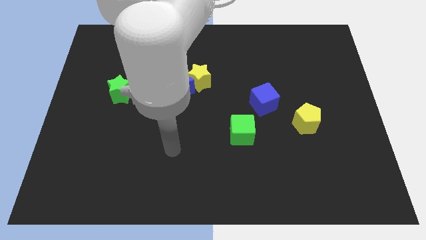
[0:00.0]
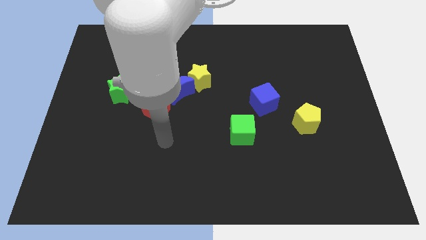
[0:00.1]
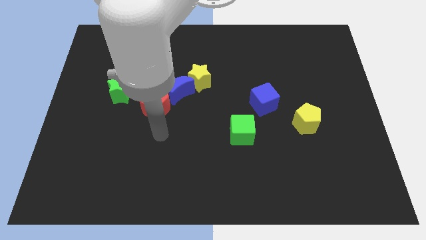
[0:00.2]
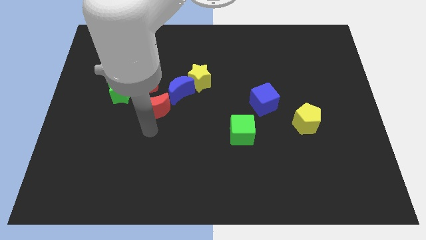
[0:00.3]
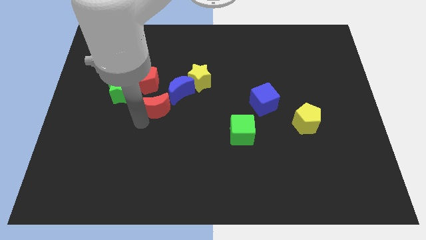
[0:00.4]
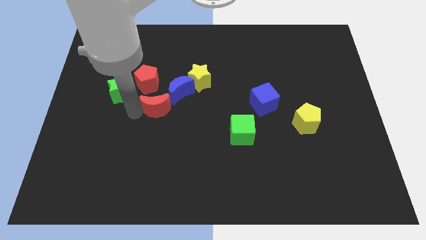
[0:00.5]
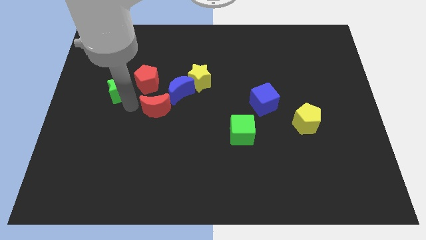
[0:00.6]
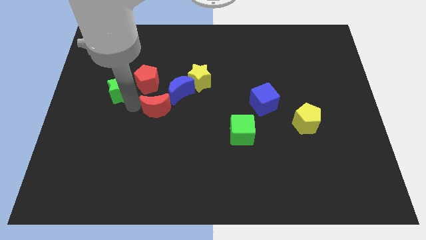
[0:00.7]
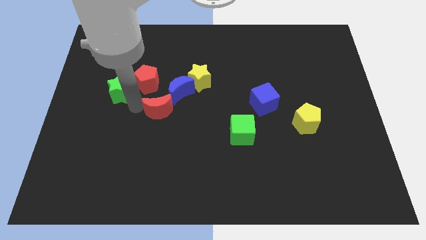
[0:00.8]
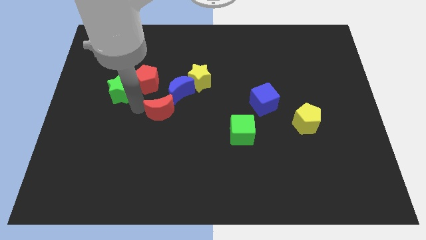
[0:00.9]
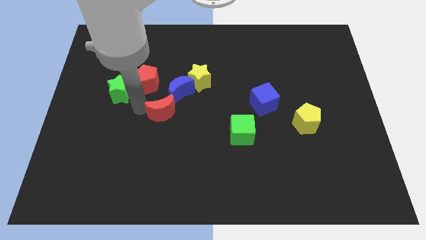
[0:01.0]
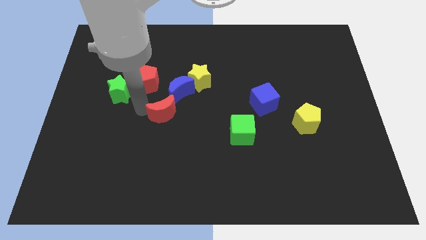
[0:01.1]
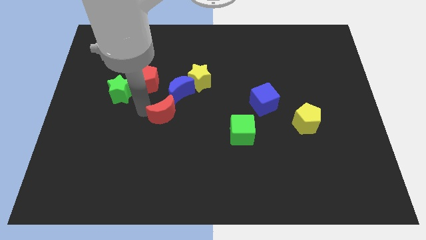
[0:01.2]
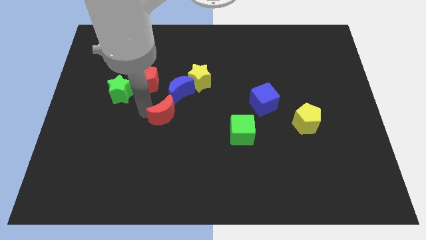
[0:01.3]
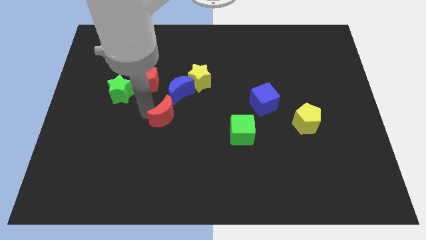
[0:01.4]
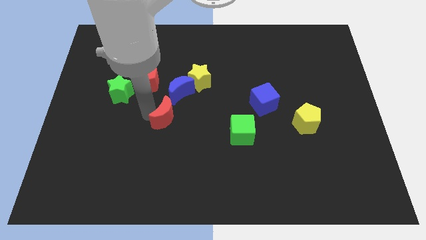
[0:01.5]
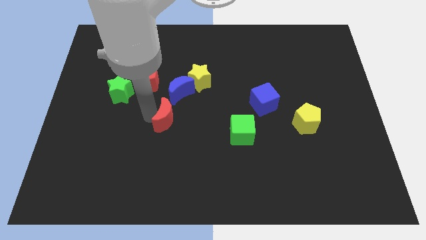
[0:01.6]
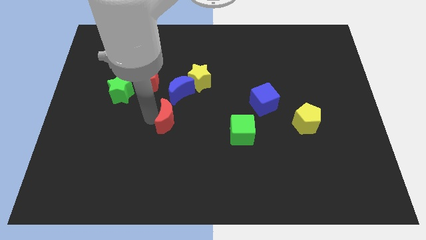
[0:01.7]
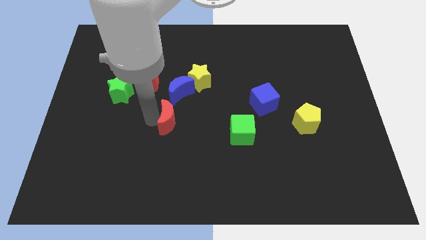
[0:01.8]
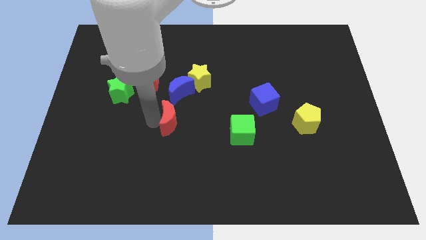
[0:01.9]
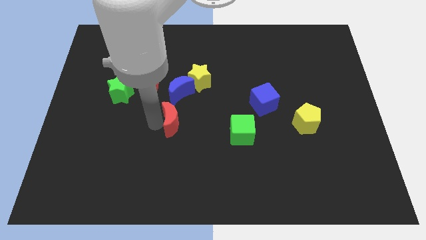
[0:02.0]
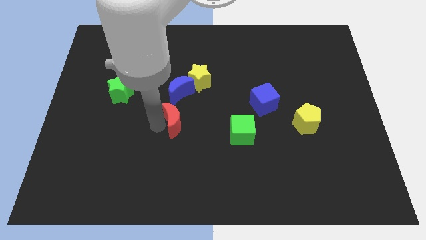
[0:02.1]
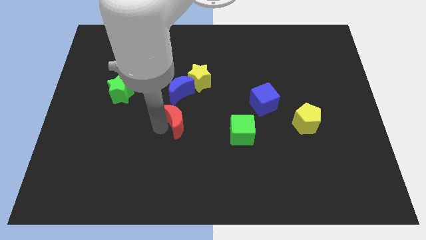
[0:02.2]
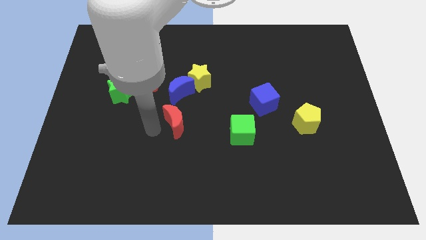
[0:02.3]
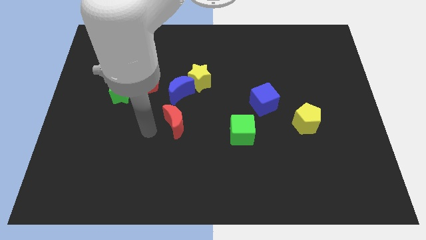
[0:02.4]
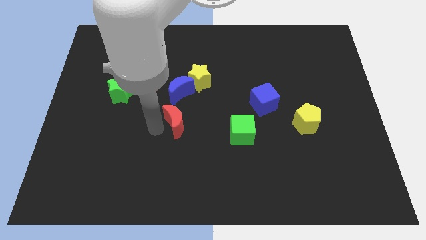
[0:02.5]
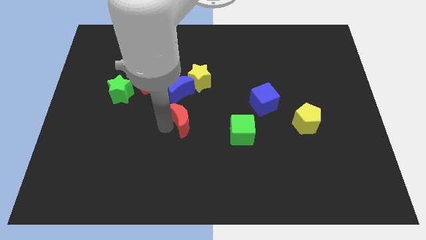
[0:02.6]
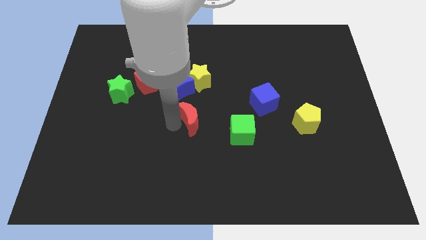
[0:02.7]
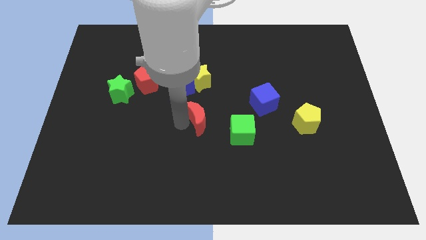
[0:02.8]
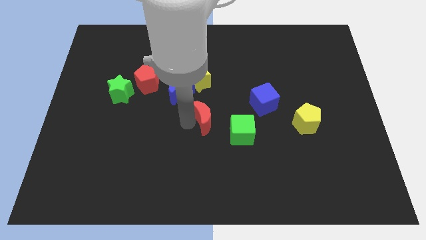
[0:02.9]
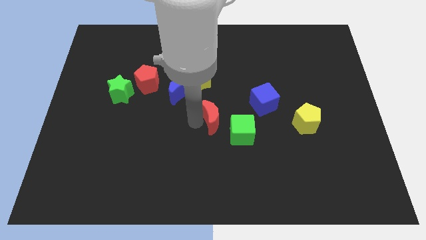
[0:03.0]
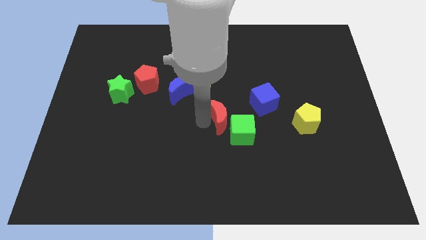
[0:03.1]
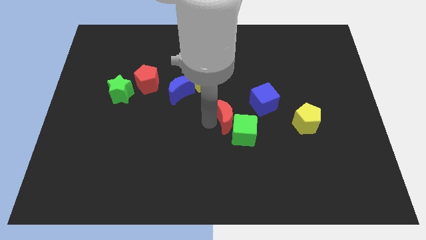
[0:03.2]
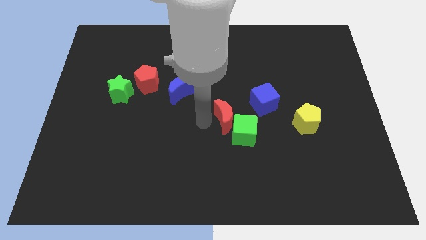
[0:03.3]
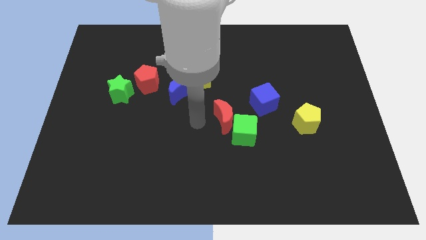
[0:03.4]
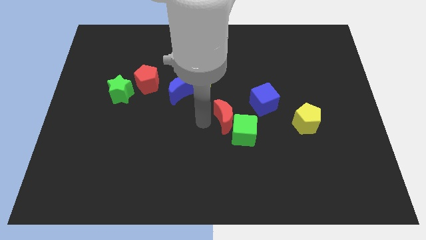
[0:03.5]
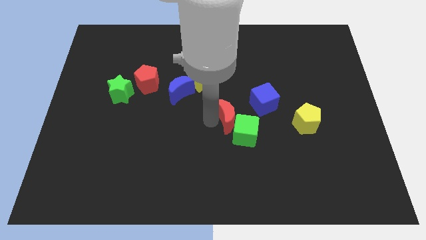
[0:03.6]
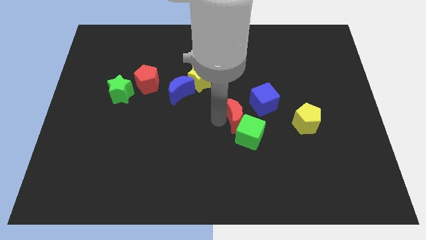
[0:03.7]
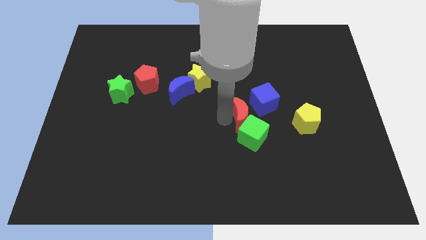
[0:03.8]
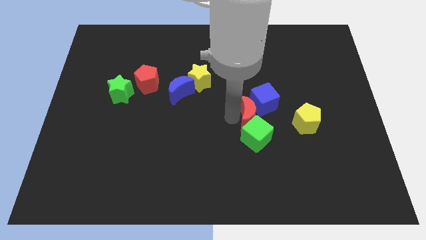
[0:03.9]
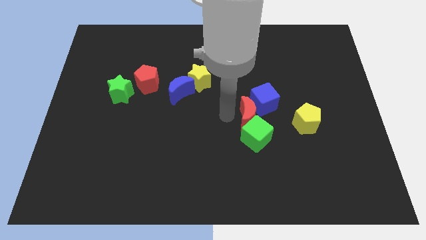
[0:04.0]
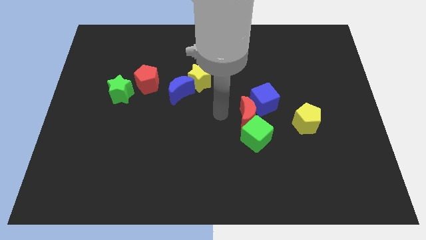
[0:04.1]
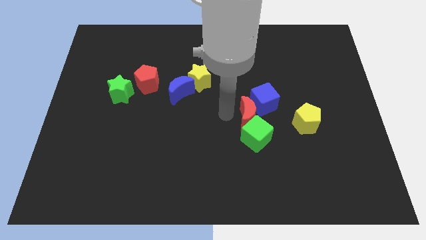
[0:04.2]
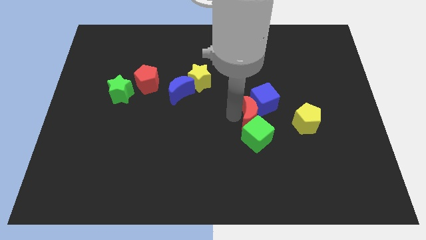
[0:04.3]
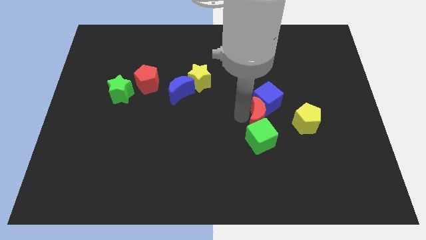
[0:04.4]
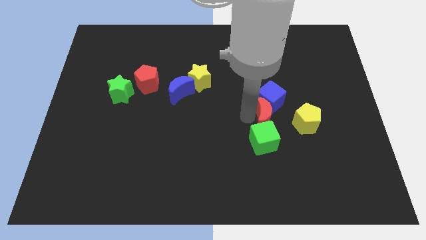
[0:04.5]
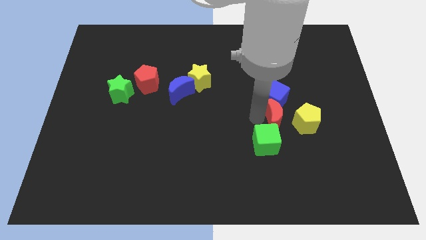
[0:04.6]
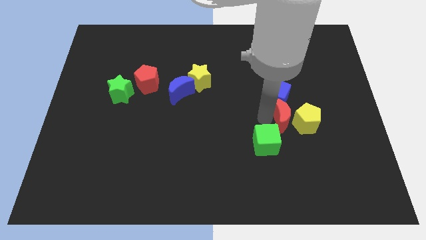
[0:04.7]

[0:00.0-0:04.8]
slide the red moon next to the yellow pentagon

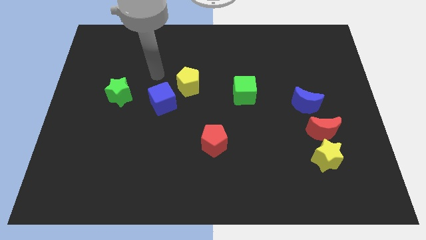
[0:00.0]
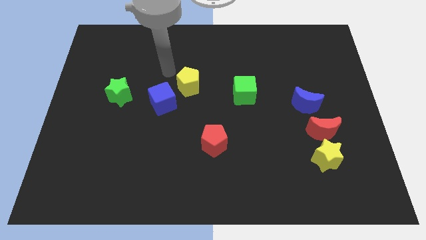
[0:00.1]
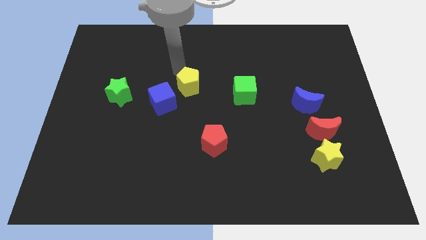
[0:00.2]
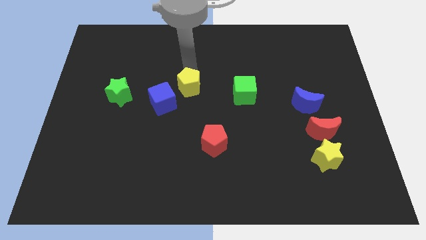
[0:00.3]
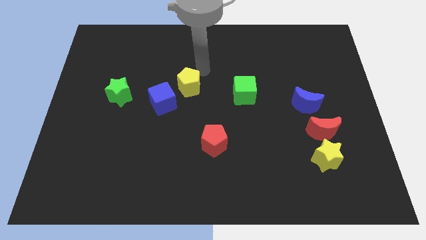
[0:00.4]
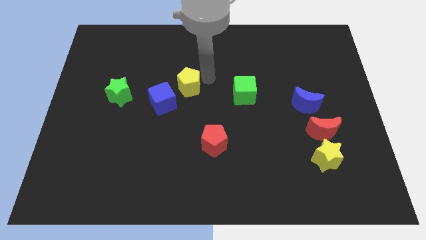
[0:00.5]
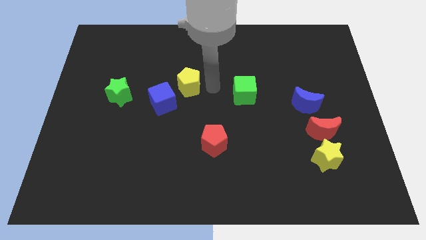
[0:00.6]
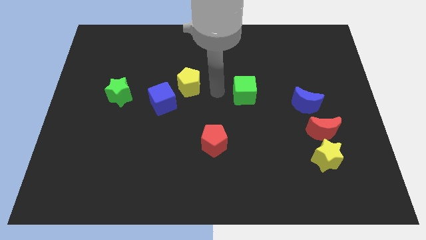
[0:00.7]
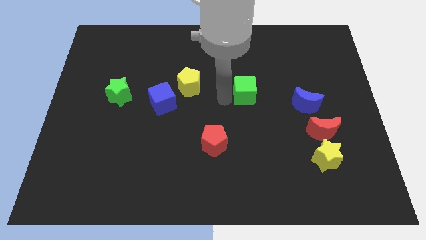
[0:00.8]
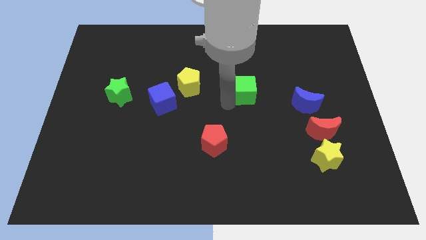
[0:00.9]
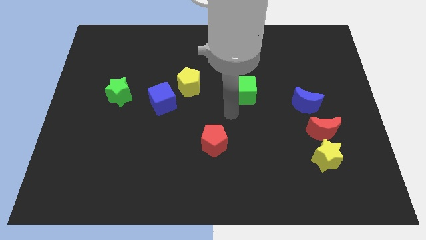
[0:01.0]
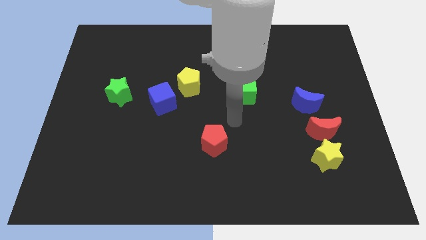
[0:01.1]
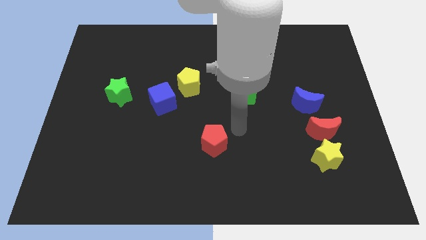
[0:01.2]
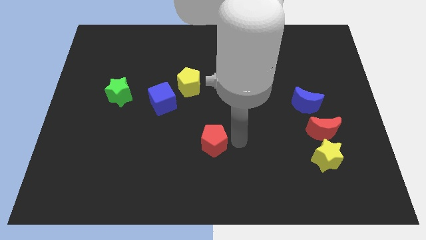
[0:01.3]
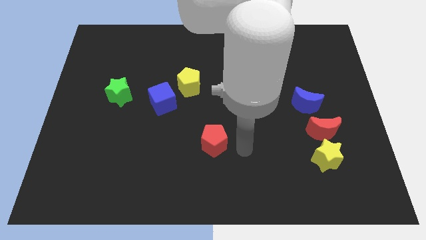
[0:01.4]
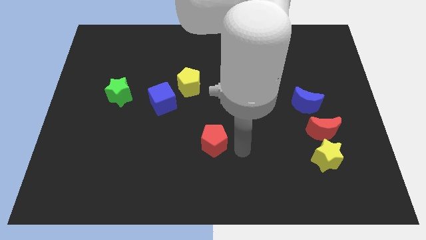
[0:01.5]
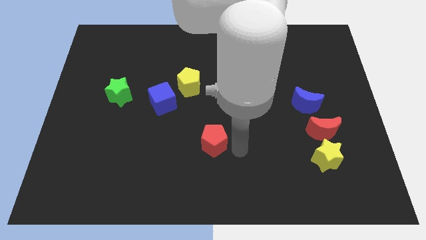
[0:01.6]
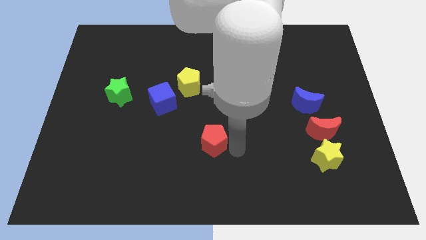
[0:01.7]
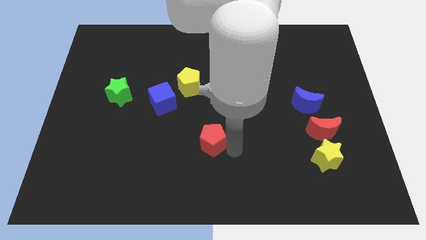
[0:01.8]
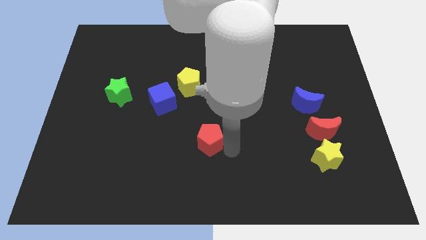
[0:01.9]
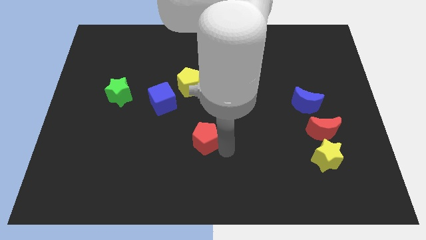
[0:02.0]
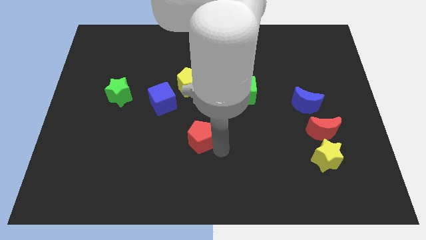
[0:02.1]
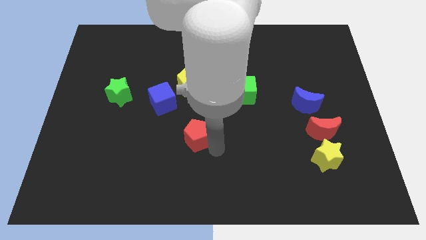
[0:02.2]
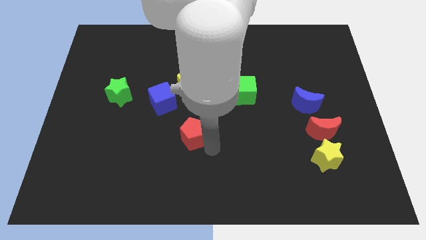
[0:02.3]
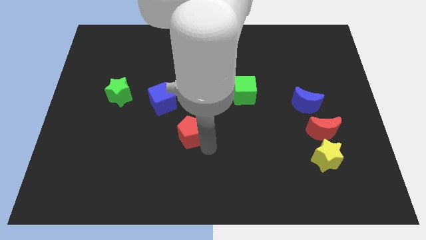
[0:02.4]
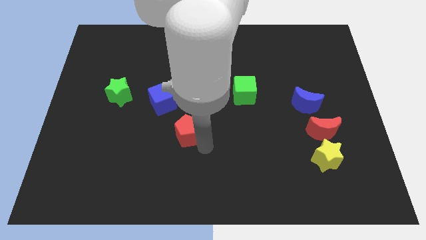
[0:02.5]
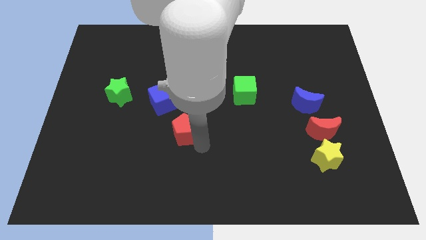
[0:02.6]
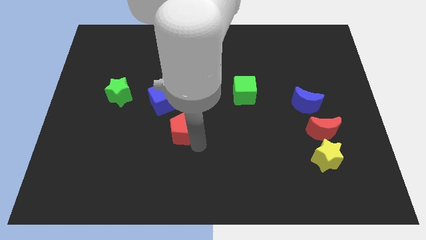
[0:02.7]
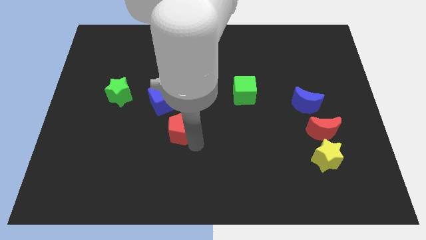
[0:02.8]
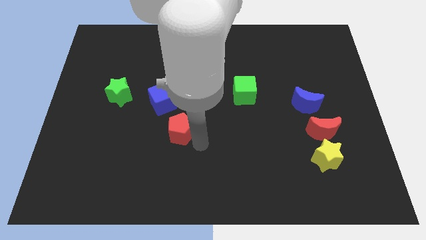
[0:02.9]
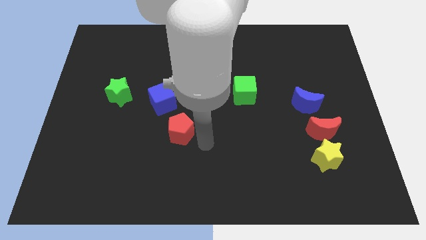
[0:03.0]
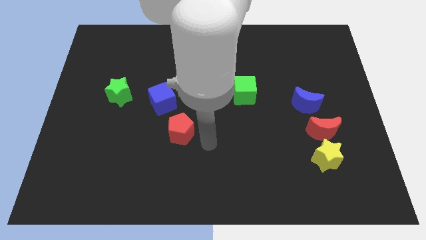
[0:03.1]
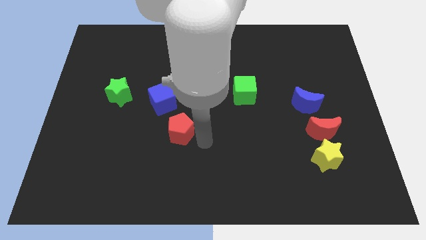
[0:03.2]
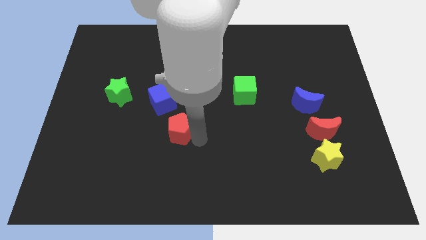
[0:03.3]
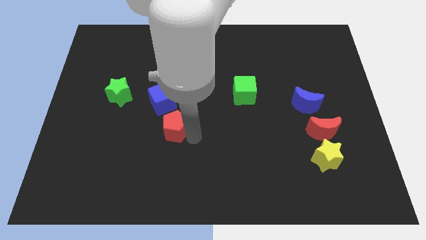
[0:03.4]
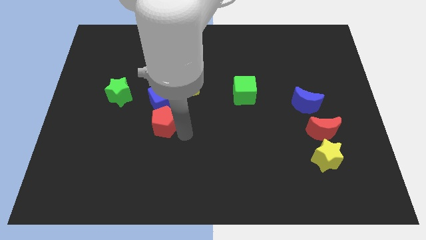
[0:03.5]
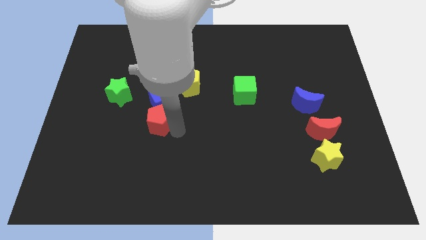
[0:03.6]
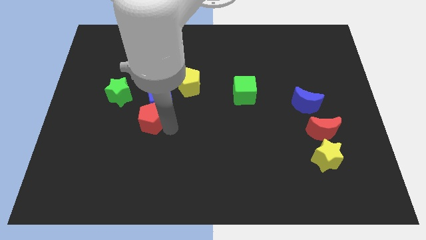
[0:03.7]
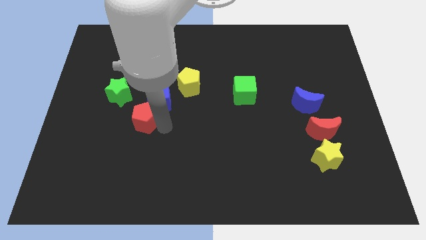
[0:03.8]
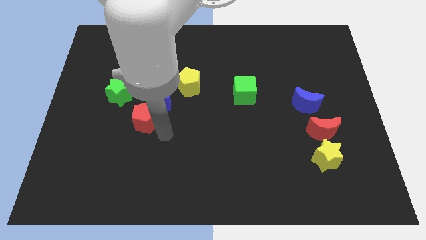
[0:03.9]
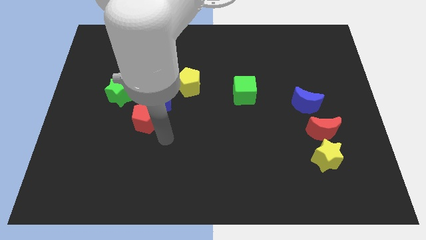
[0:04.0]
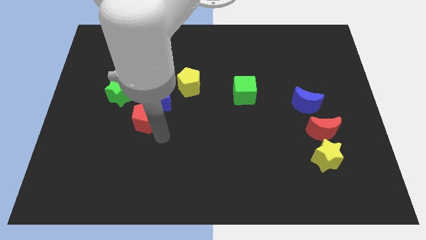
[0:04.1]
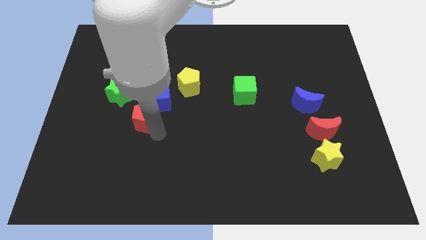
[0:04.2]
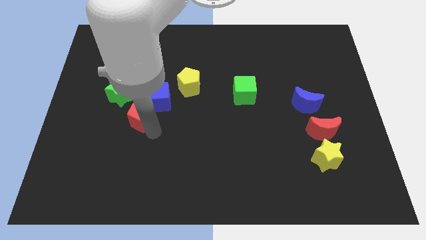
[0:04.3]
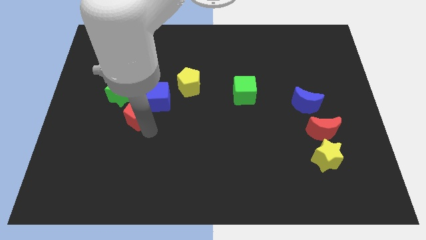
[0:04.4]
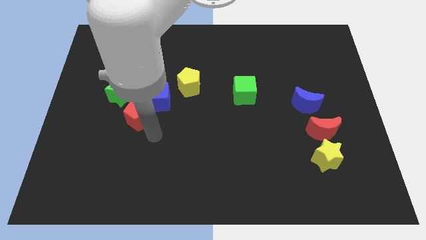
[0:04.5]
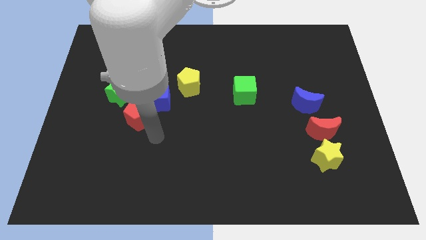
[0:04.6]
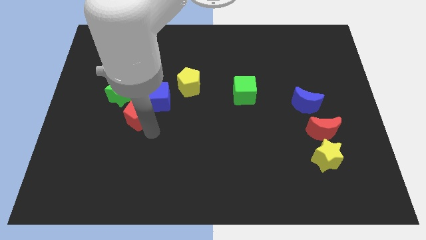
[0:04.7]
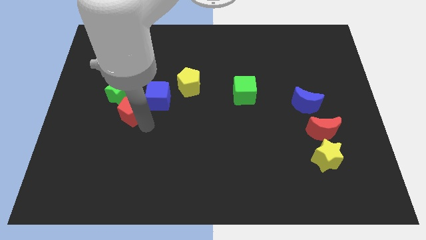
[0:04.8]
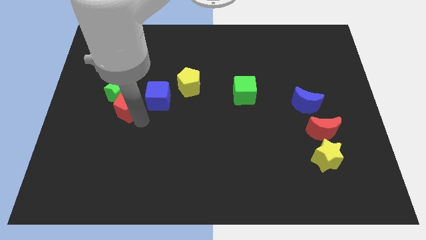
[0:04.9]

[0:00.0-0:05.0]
put the red pentagon to the green star
